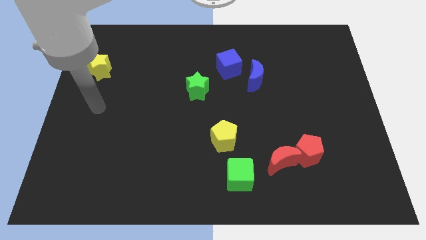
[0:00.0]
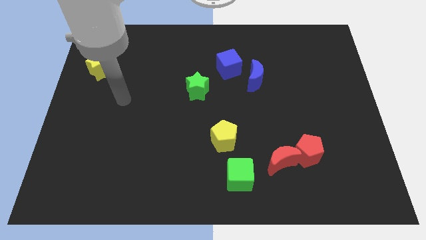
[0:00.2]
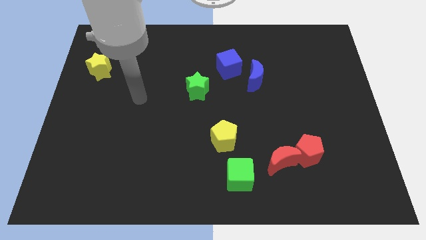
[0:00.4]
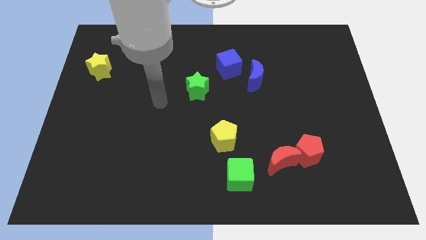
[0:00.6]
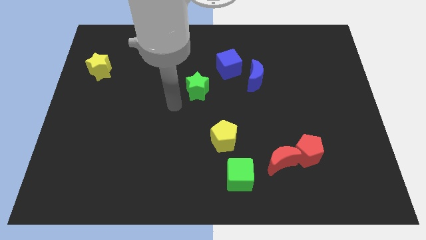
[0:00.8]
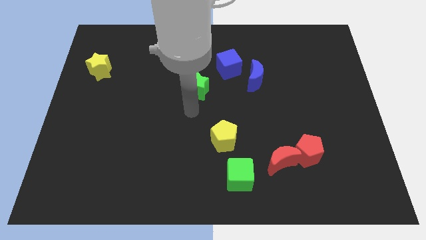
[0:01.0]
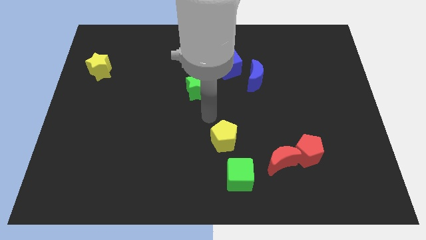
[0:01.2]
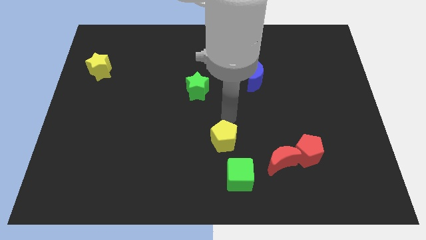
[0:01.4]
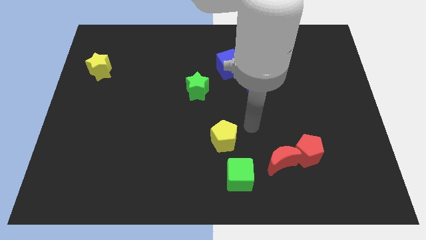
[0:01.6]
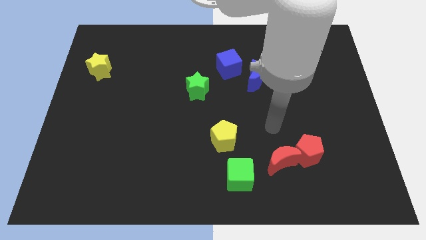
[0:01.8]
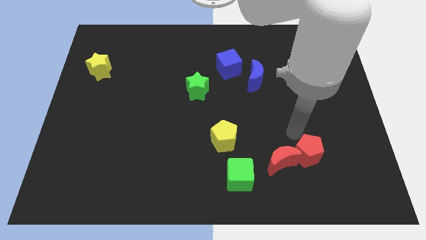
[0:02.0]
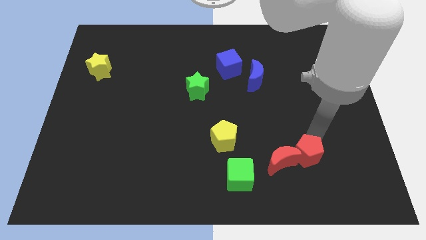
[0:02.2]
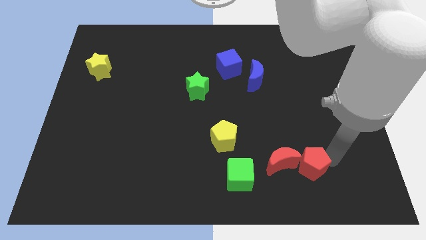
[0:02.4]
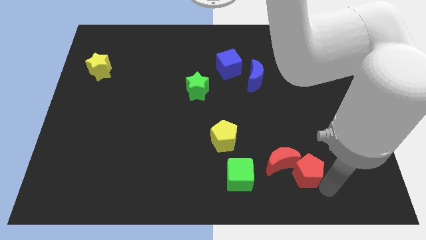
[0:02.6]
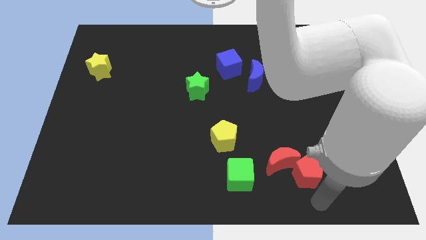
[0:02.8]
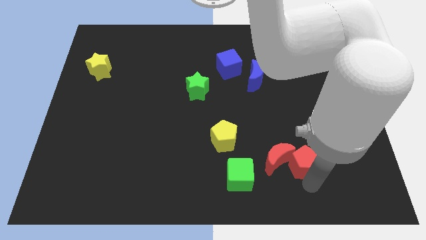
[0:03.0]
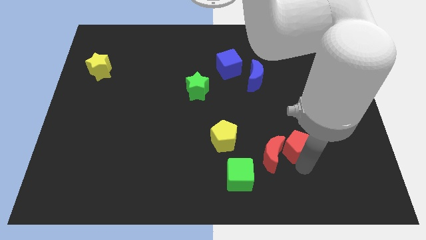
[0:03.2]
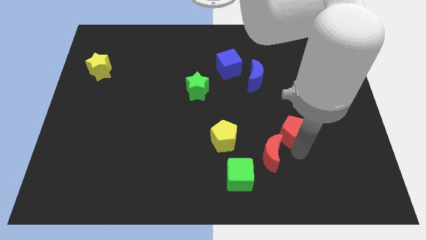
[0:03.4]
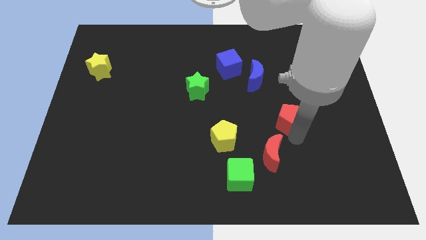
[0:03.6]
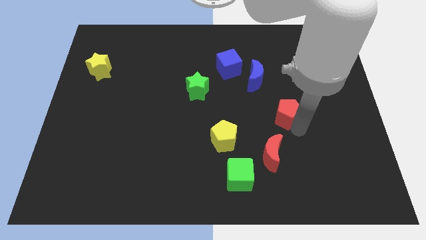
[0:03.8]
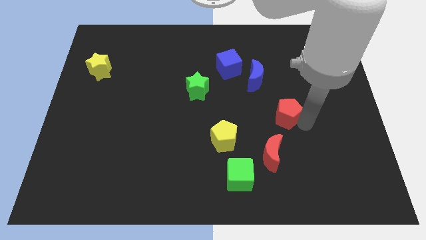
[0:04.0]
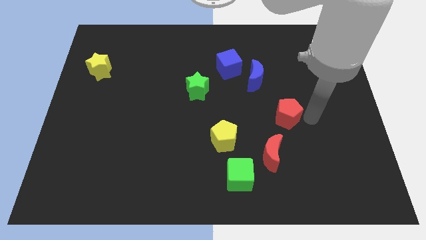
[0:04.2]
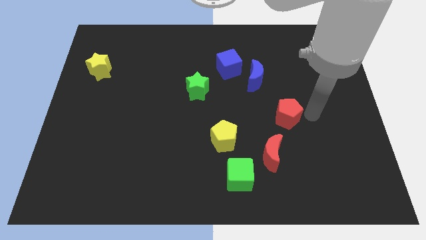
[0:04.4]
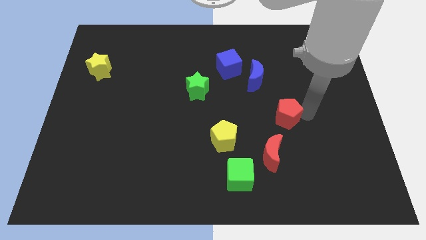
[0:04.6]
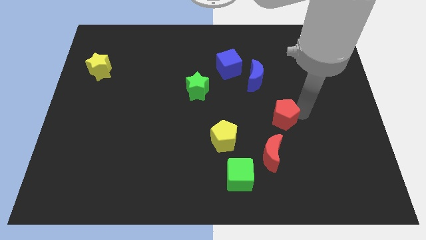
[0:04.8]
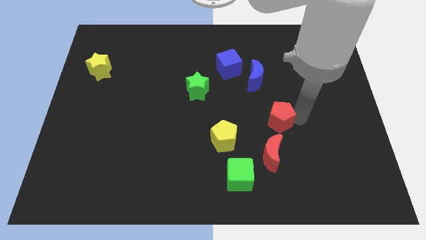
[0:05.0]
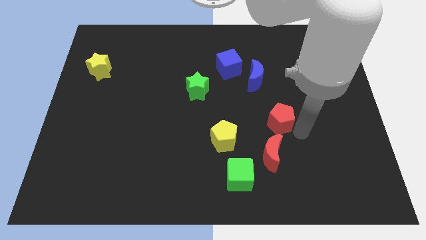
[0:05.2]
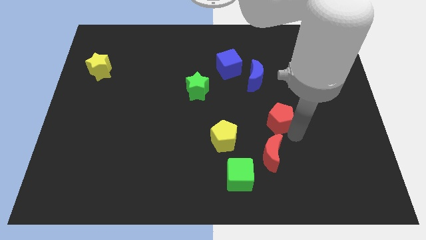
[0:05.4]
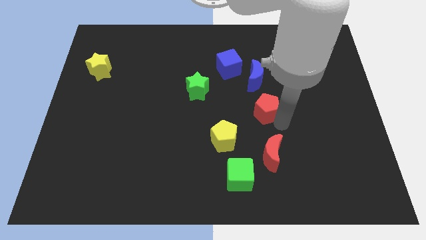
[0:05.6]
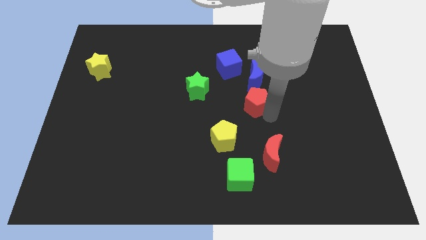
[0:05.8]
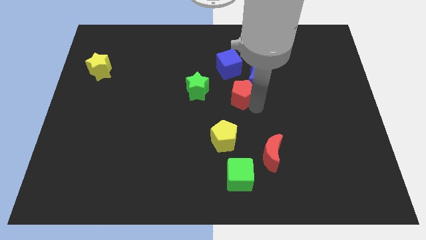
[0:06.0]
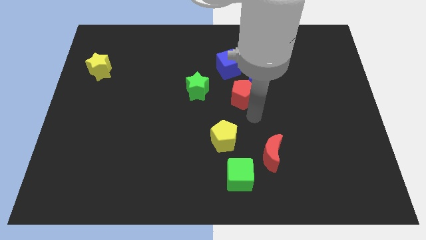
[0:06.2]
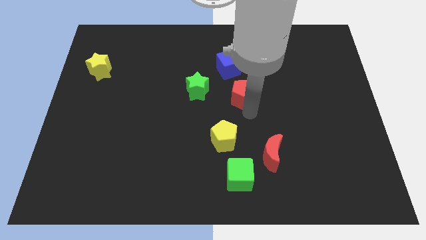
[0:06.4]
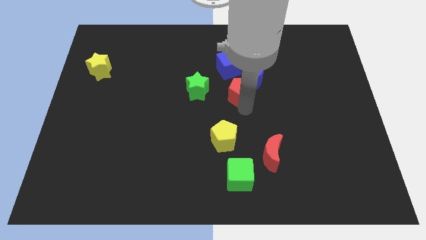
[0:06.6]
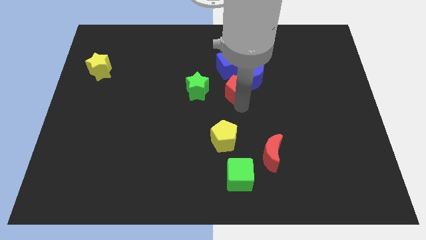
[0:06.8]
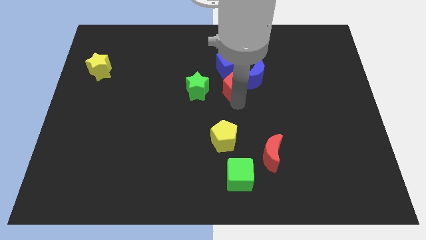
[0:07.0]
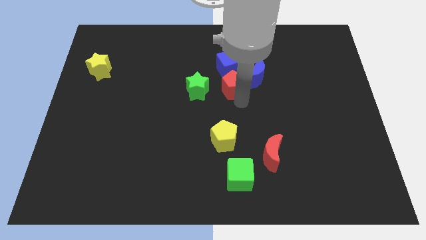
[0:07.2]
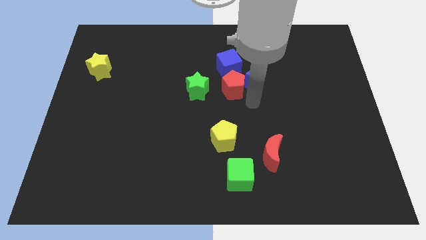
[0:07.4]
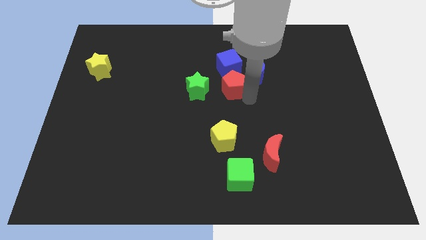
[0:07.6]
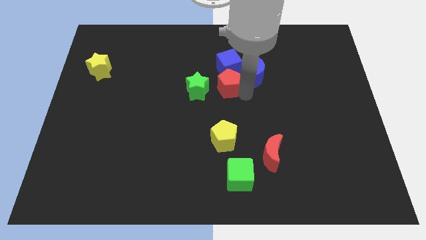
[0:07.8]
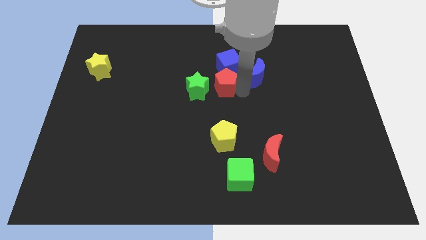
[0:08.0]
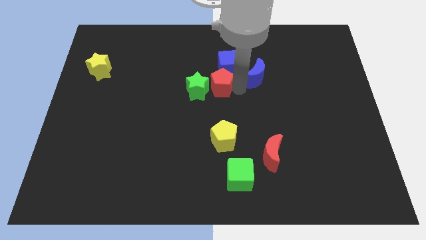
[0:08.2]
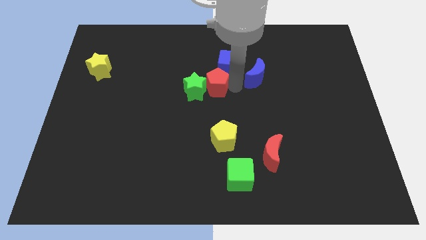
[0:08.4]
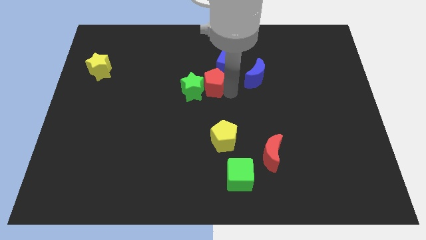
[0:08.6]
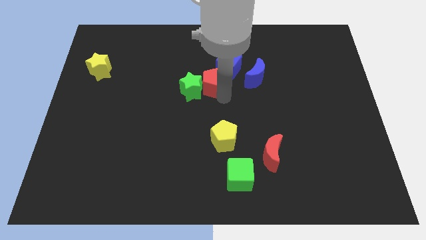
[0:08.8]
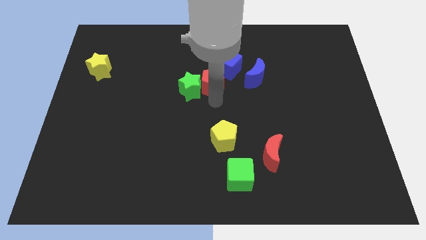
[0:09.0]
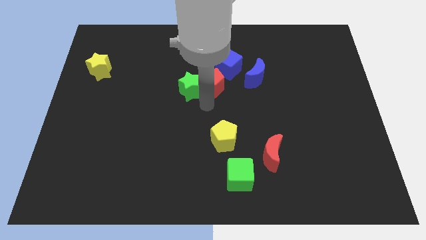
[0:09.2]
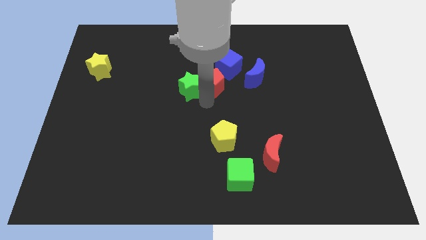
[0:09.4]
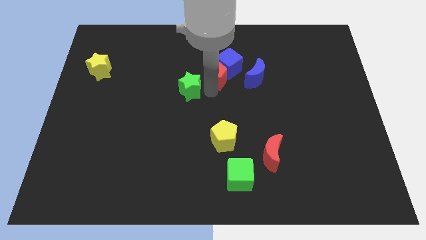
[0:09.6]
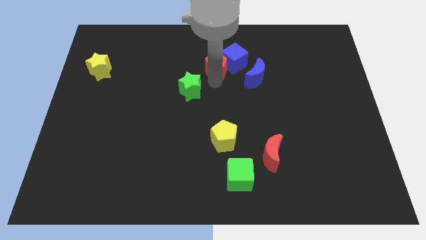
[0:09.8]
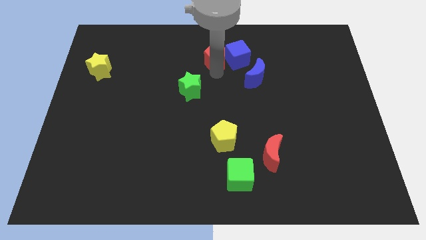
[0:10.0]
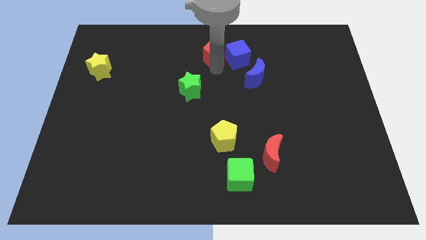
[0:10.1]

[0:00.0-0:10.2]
move the red pentagon to the top side
